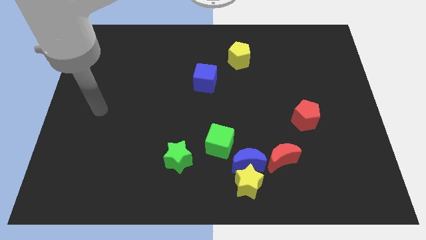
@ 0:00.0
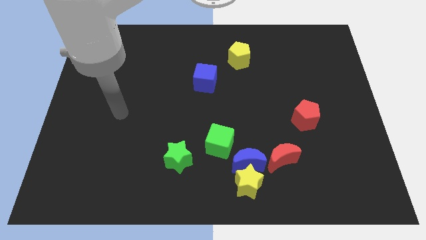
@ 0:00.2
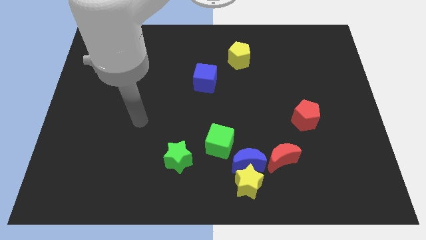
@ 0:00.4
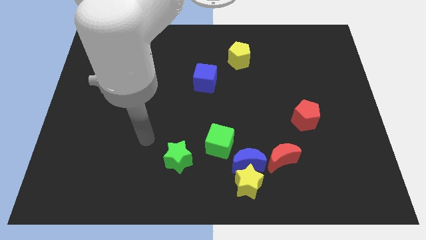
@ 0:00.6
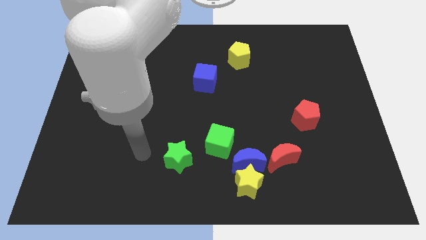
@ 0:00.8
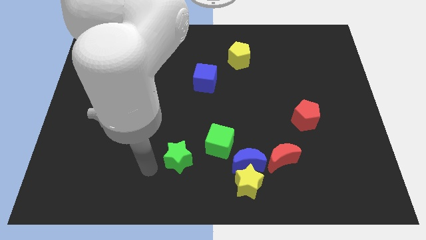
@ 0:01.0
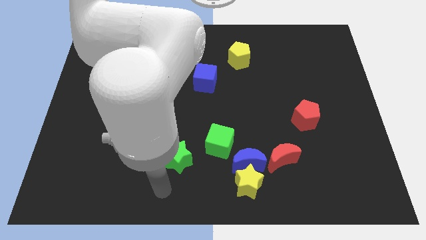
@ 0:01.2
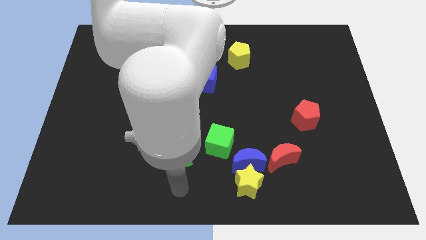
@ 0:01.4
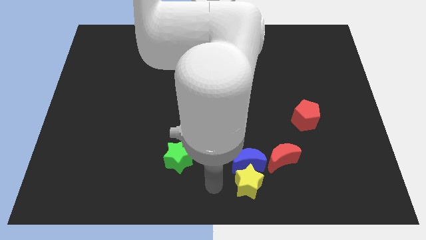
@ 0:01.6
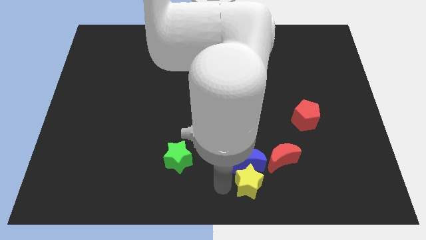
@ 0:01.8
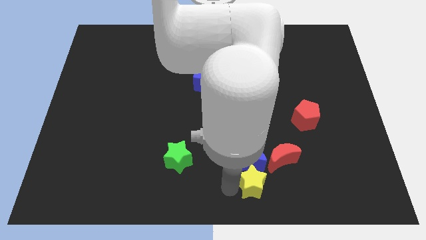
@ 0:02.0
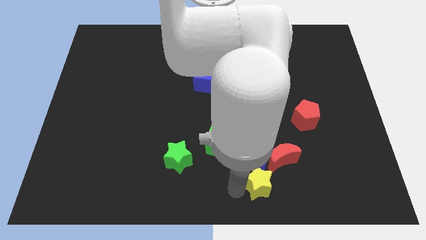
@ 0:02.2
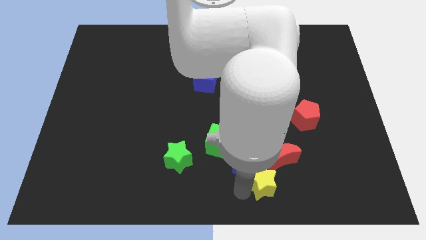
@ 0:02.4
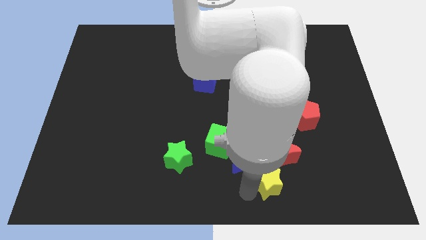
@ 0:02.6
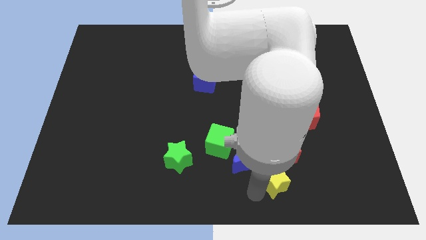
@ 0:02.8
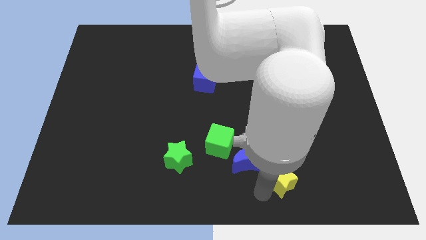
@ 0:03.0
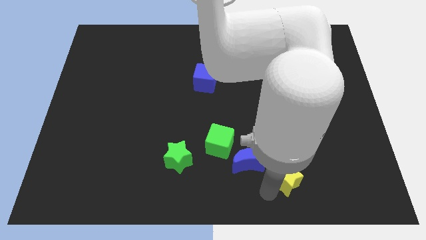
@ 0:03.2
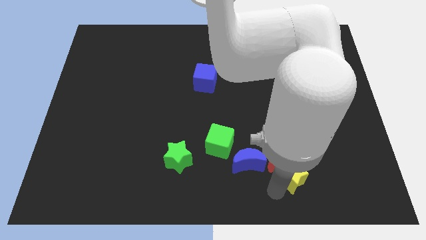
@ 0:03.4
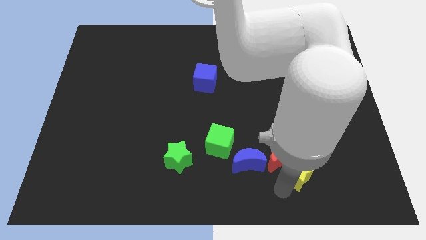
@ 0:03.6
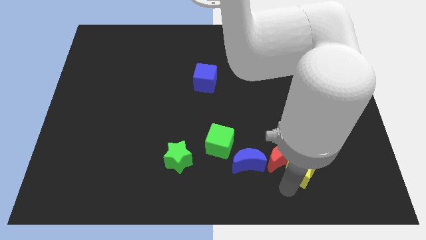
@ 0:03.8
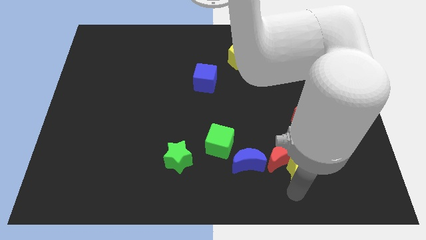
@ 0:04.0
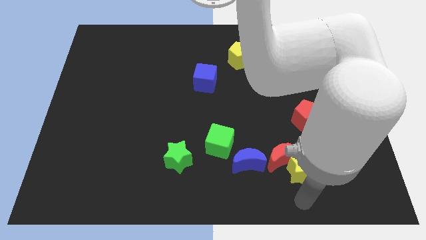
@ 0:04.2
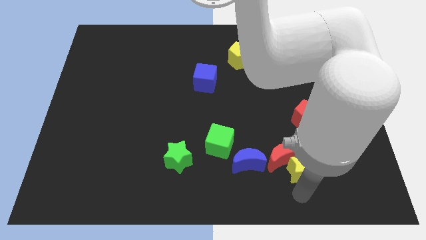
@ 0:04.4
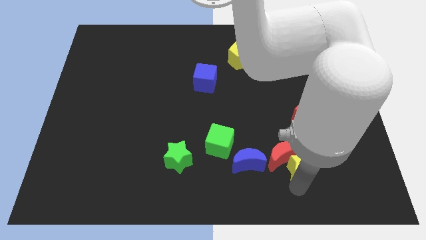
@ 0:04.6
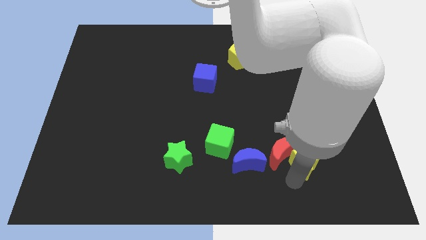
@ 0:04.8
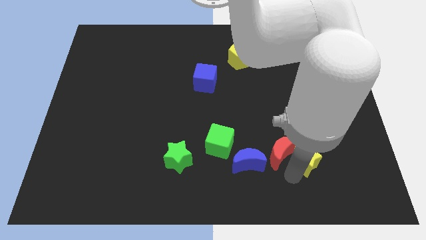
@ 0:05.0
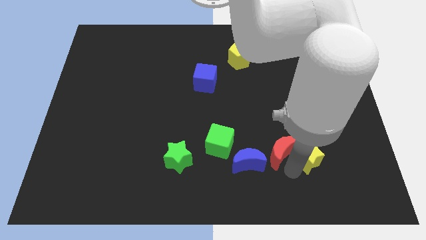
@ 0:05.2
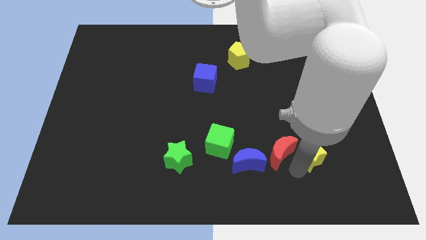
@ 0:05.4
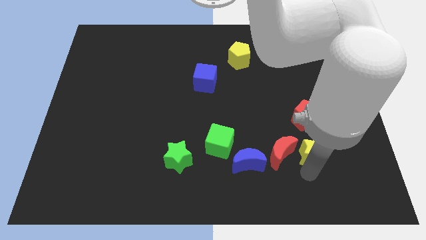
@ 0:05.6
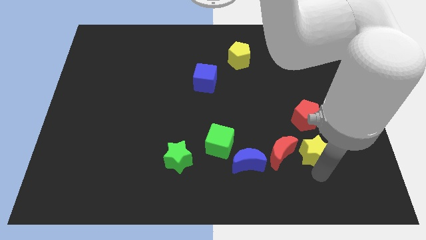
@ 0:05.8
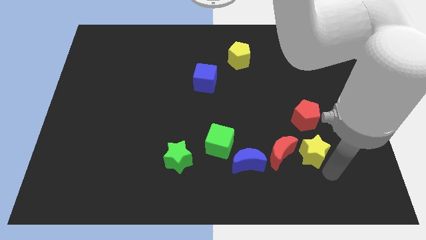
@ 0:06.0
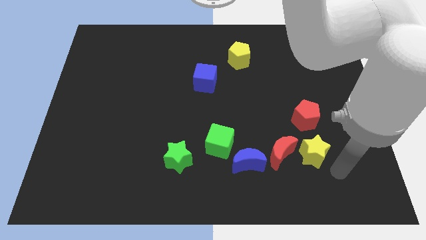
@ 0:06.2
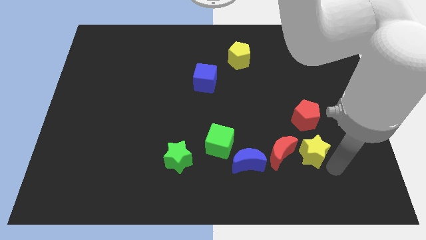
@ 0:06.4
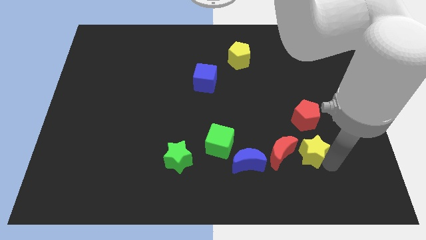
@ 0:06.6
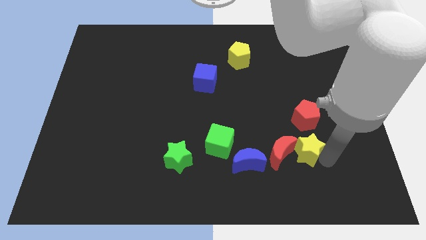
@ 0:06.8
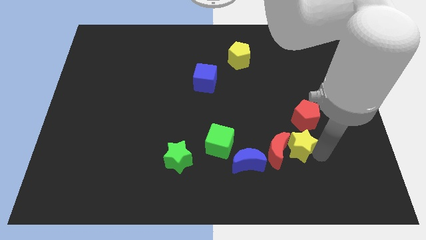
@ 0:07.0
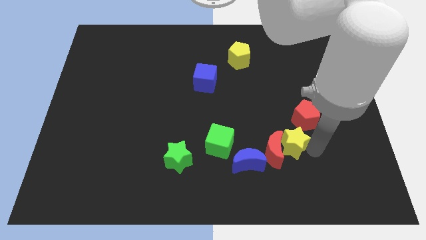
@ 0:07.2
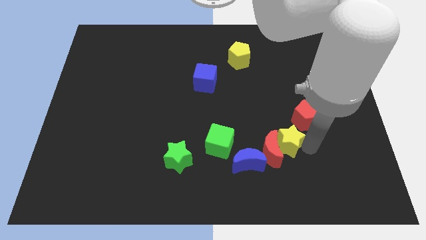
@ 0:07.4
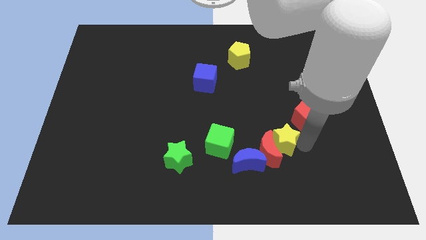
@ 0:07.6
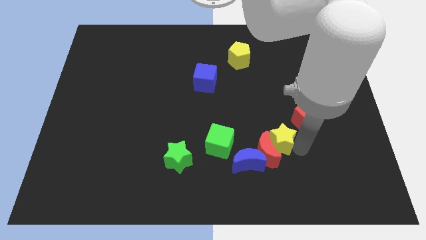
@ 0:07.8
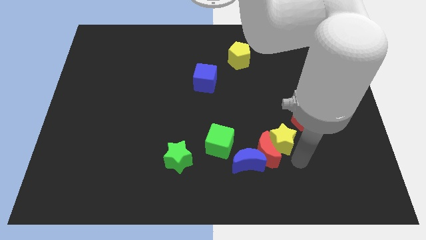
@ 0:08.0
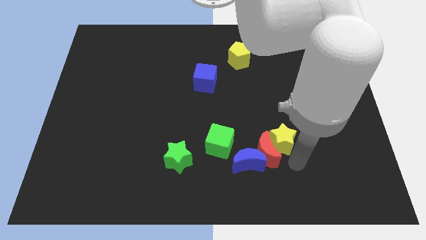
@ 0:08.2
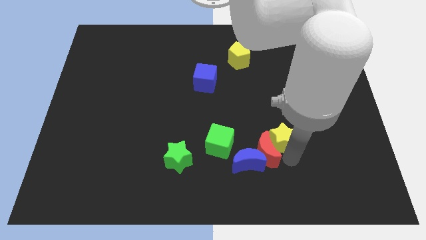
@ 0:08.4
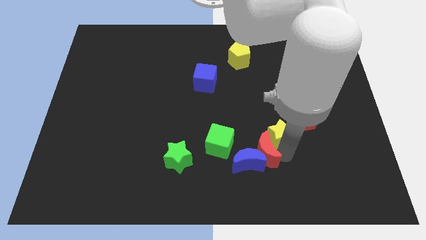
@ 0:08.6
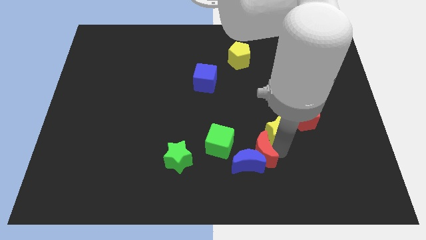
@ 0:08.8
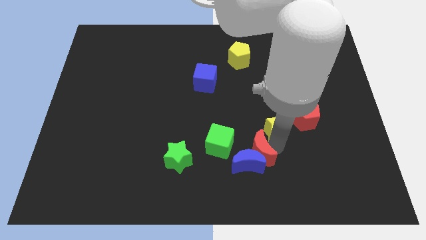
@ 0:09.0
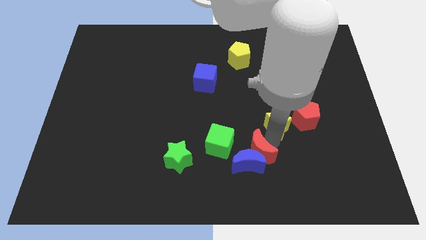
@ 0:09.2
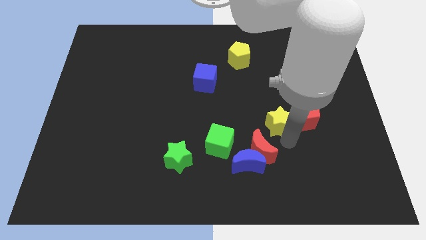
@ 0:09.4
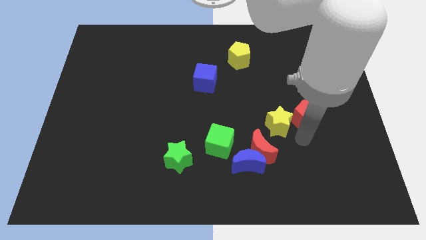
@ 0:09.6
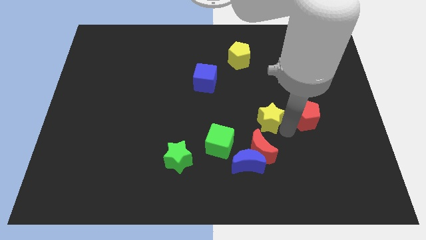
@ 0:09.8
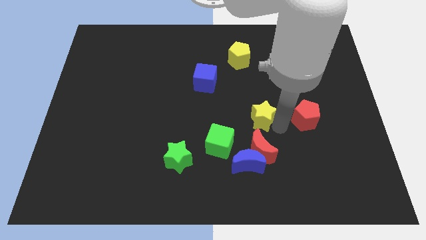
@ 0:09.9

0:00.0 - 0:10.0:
put the yellow star to the center of the board

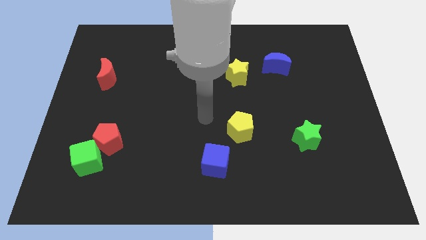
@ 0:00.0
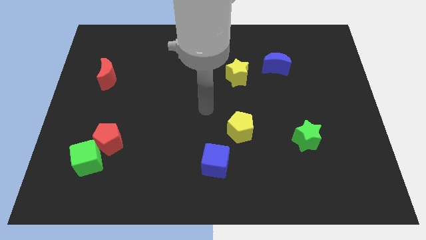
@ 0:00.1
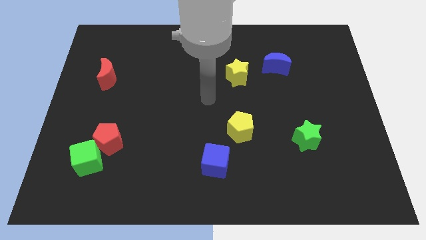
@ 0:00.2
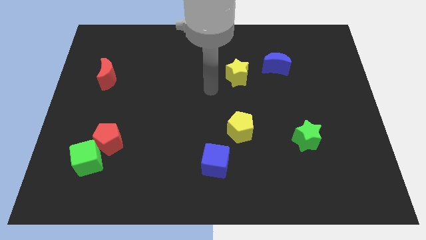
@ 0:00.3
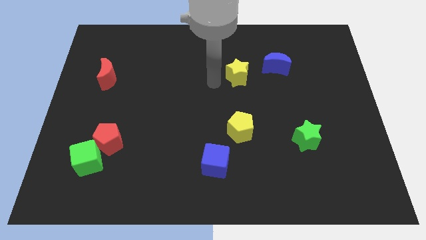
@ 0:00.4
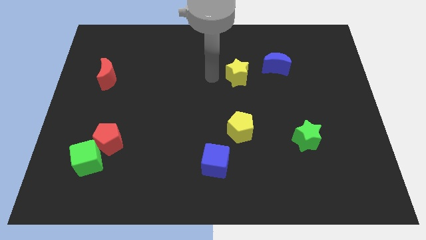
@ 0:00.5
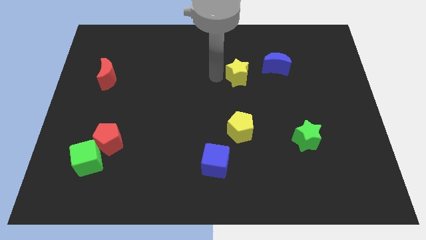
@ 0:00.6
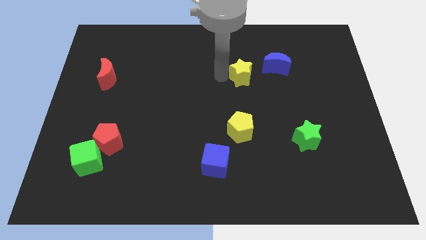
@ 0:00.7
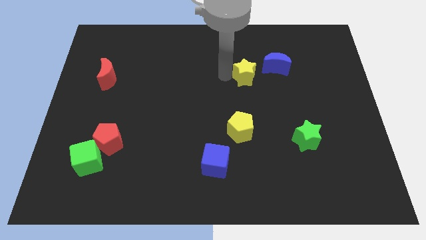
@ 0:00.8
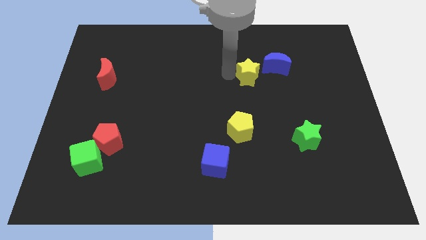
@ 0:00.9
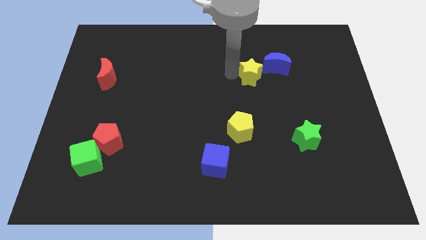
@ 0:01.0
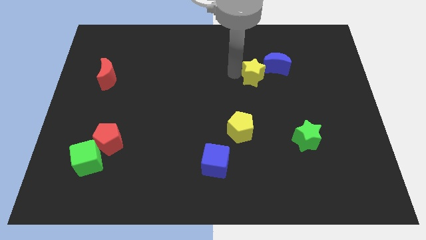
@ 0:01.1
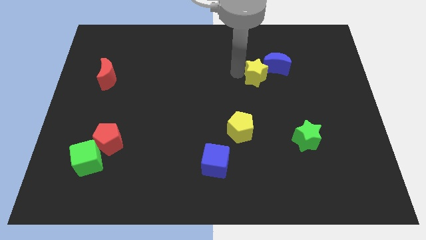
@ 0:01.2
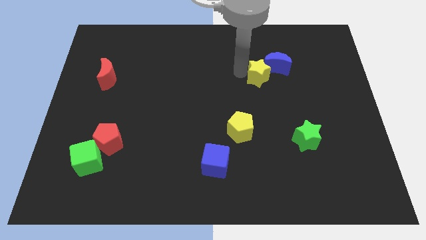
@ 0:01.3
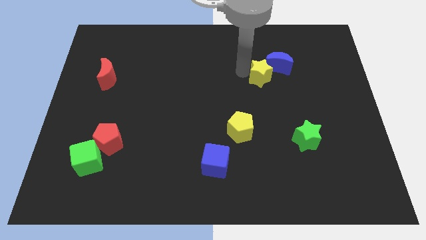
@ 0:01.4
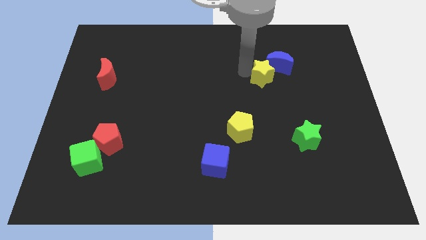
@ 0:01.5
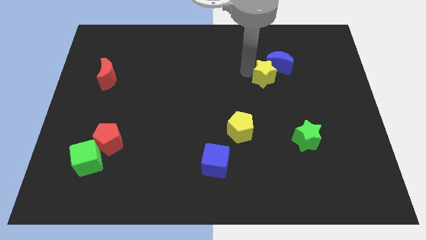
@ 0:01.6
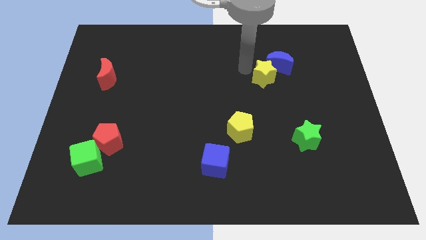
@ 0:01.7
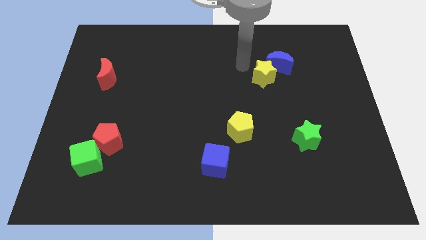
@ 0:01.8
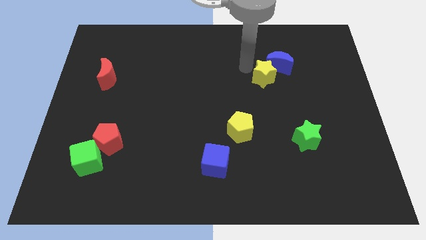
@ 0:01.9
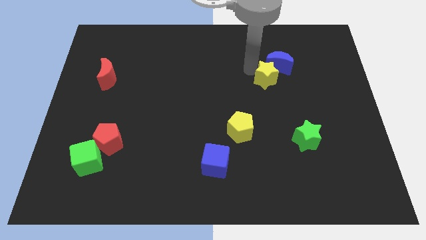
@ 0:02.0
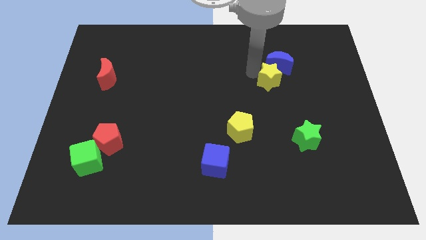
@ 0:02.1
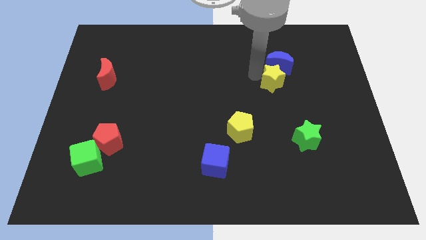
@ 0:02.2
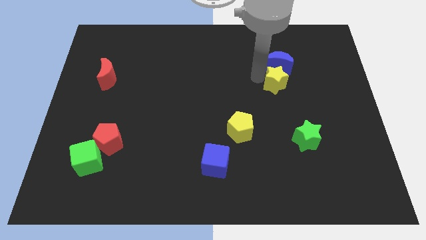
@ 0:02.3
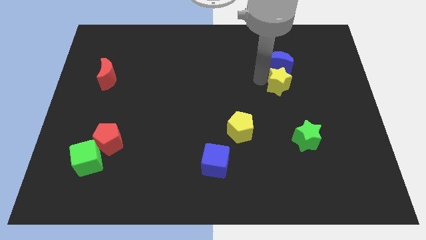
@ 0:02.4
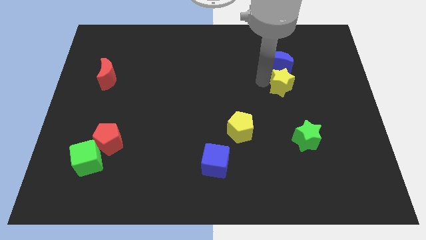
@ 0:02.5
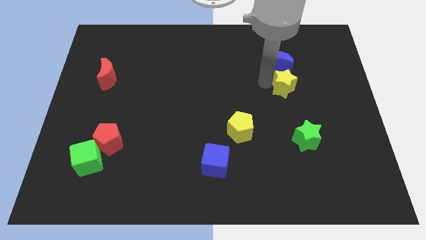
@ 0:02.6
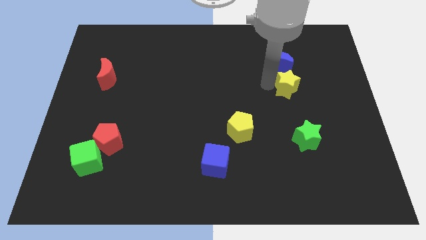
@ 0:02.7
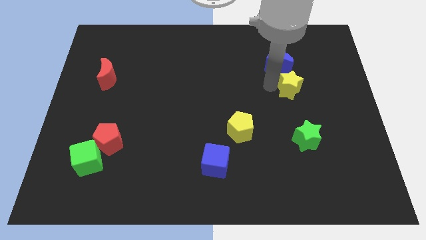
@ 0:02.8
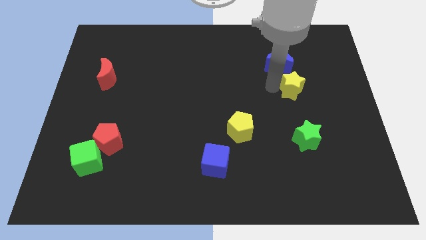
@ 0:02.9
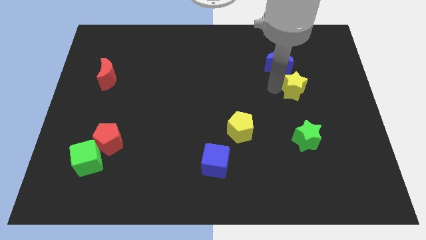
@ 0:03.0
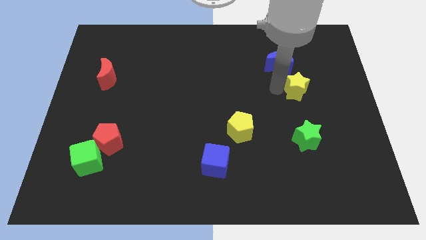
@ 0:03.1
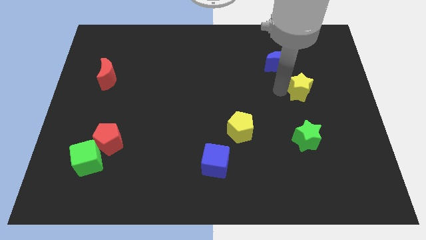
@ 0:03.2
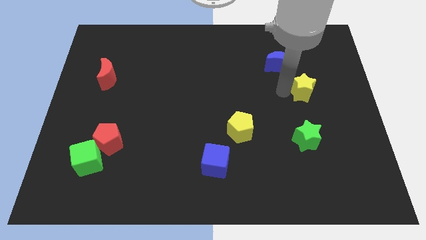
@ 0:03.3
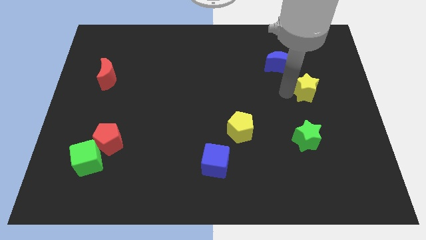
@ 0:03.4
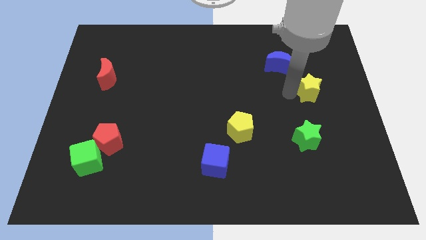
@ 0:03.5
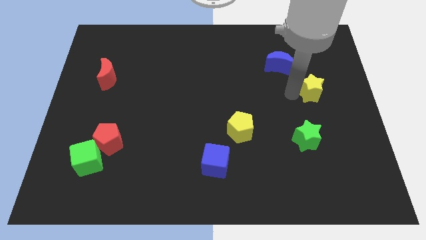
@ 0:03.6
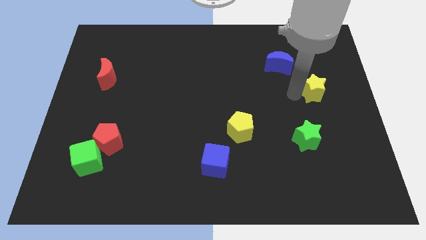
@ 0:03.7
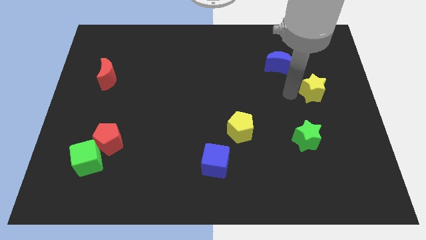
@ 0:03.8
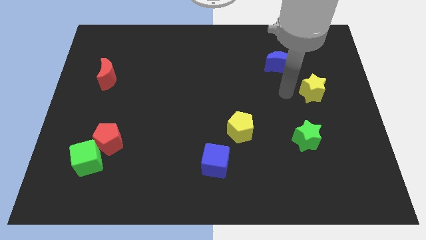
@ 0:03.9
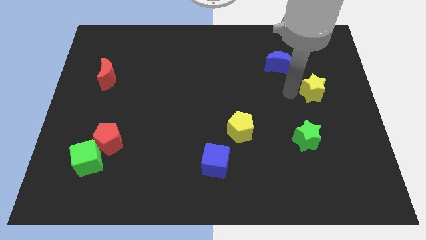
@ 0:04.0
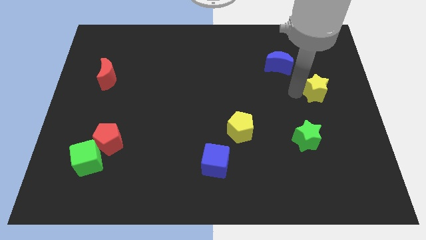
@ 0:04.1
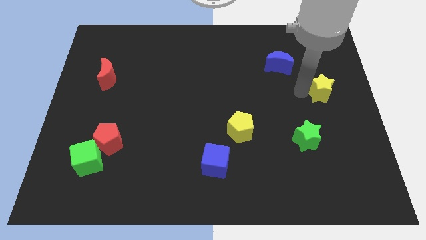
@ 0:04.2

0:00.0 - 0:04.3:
push the yellow star to the center right
